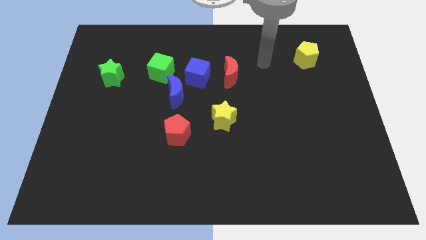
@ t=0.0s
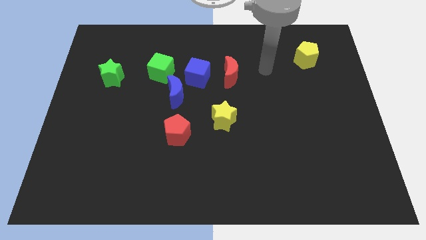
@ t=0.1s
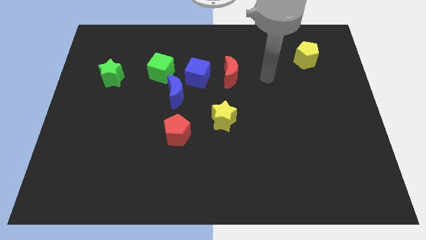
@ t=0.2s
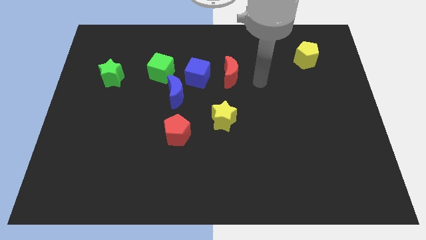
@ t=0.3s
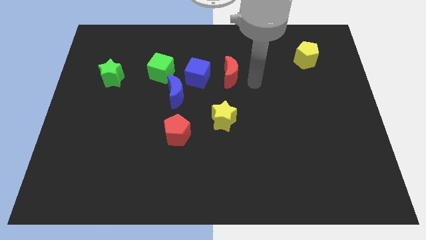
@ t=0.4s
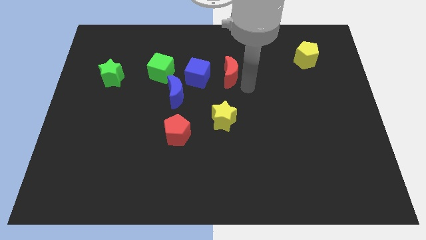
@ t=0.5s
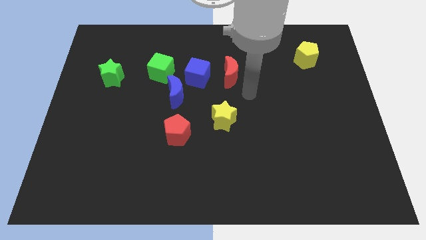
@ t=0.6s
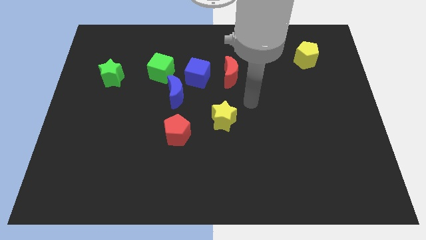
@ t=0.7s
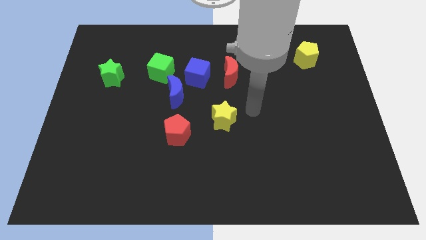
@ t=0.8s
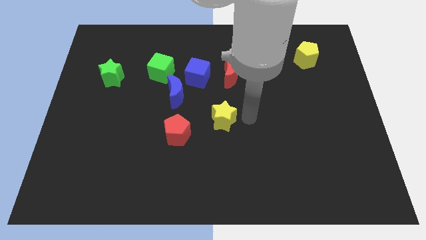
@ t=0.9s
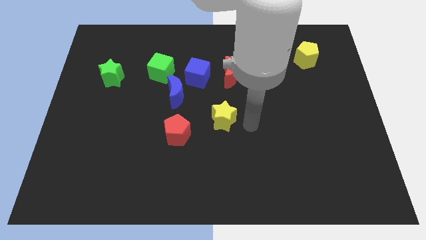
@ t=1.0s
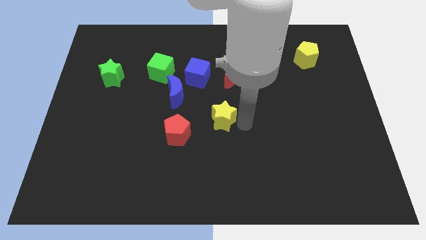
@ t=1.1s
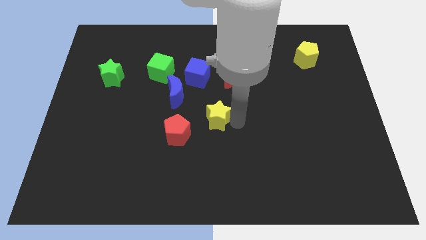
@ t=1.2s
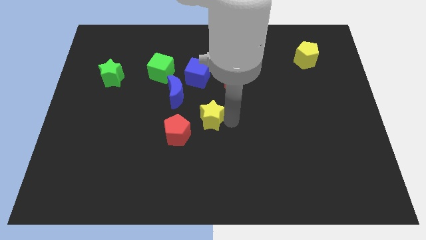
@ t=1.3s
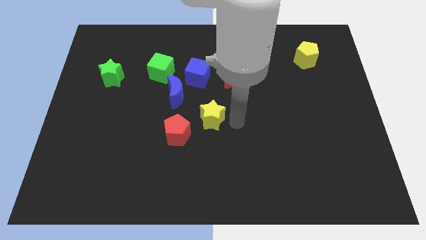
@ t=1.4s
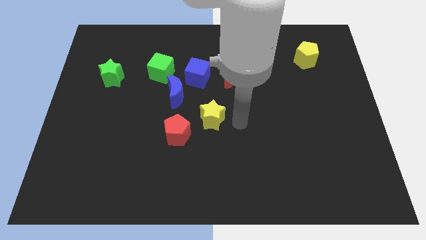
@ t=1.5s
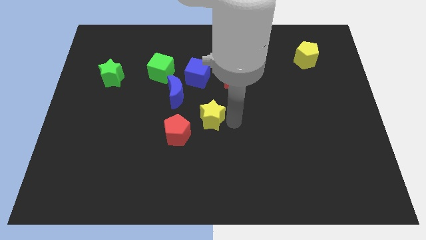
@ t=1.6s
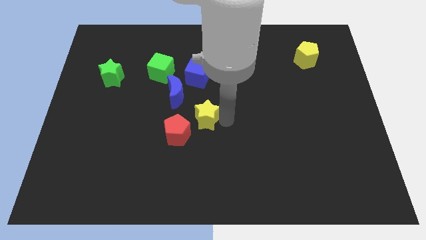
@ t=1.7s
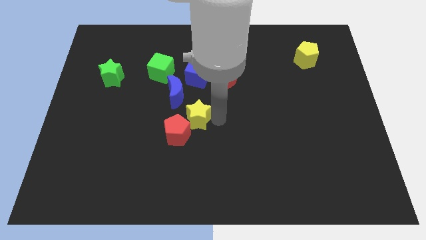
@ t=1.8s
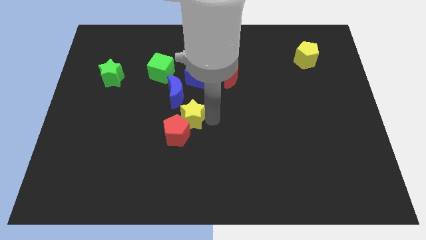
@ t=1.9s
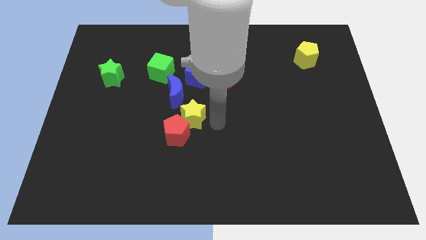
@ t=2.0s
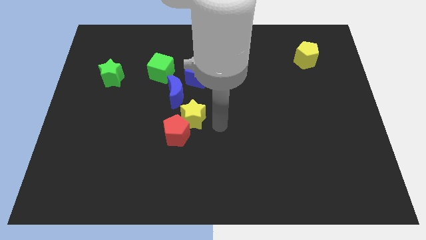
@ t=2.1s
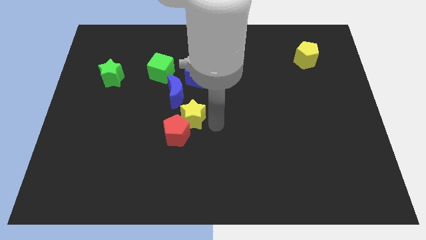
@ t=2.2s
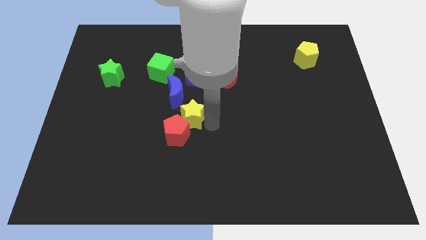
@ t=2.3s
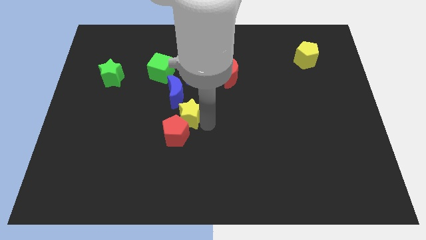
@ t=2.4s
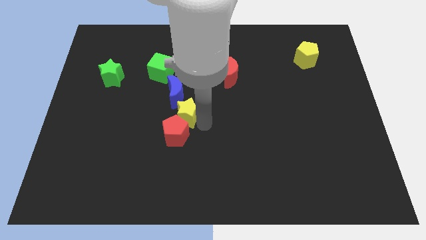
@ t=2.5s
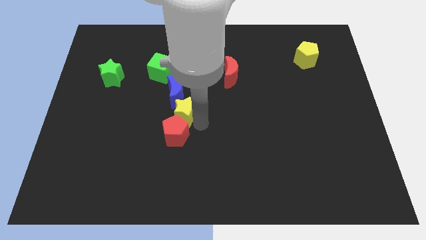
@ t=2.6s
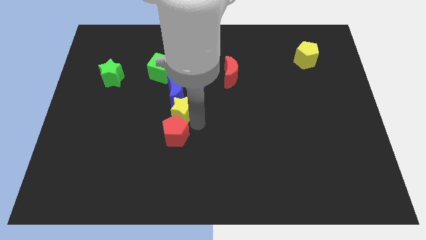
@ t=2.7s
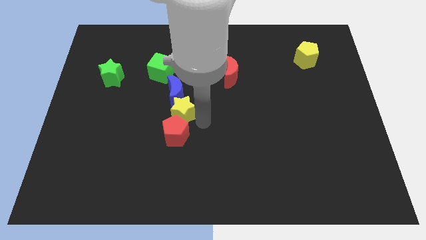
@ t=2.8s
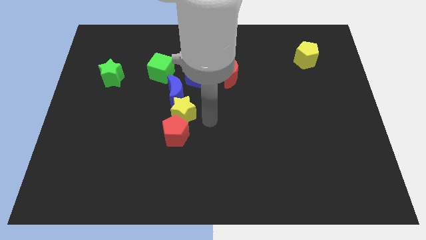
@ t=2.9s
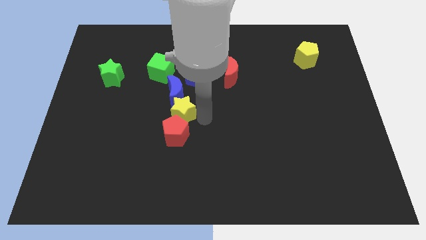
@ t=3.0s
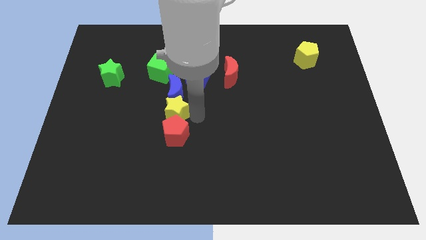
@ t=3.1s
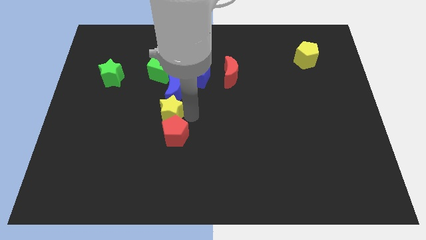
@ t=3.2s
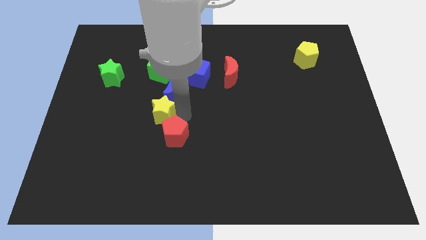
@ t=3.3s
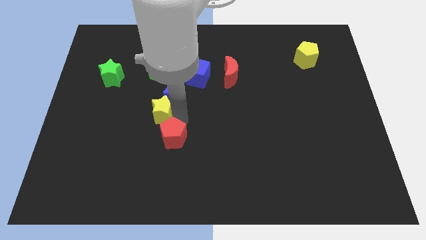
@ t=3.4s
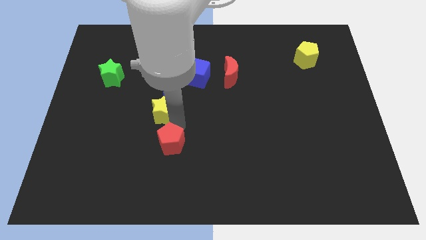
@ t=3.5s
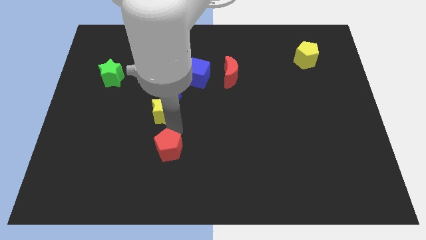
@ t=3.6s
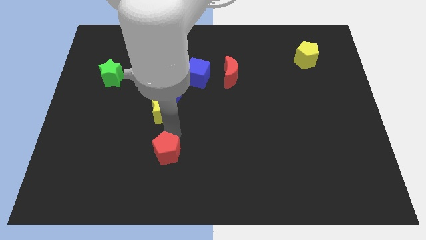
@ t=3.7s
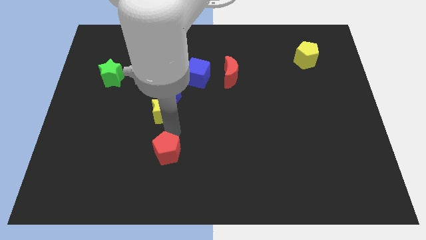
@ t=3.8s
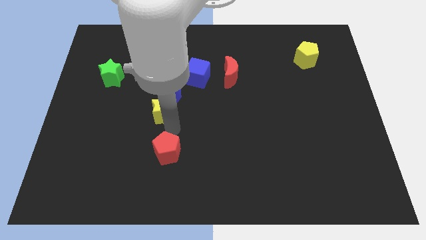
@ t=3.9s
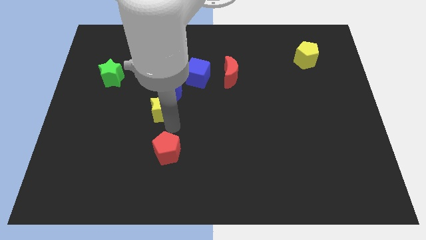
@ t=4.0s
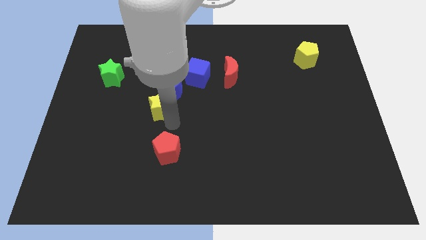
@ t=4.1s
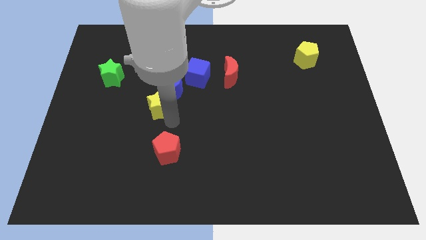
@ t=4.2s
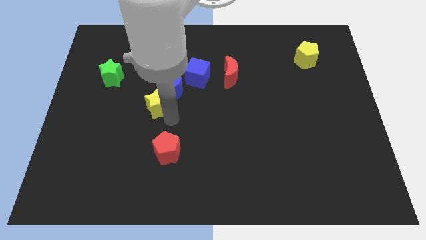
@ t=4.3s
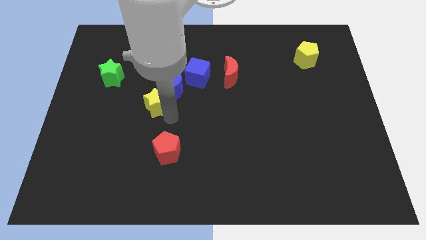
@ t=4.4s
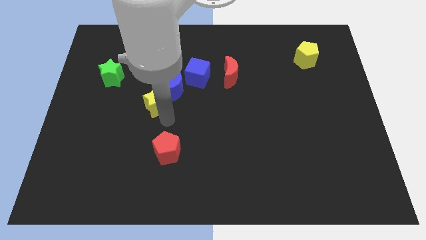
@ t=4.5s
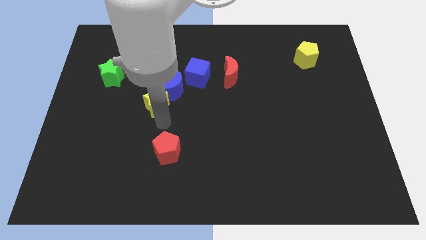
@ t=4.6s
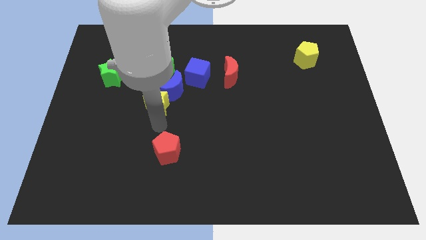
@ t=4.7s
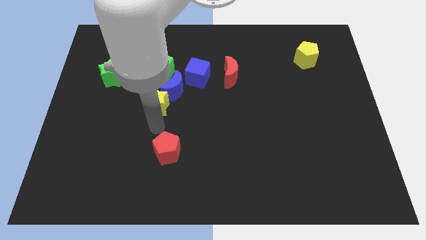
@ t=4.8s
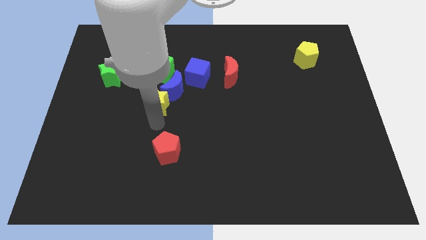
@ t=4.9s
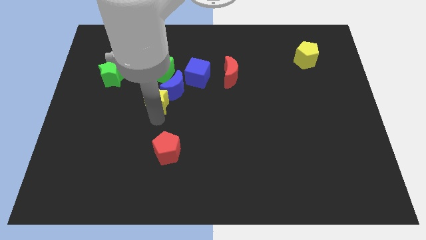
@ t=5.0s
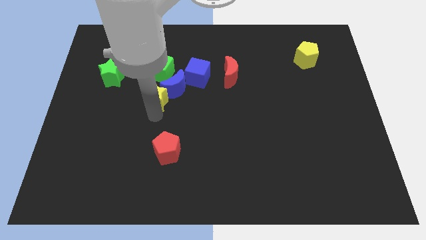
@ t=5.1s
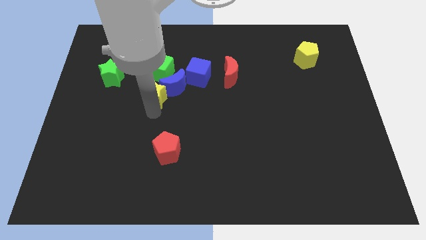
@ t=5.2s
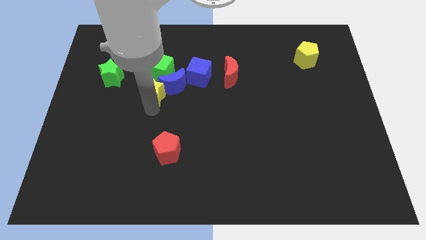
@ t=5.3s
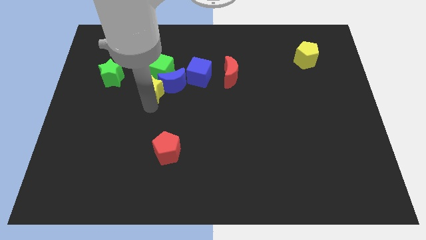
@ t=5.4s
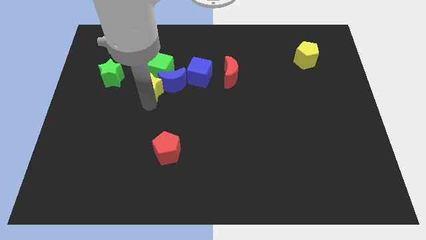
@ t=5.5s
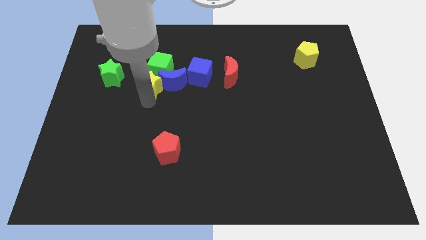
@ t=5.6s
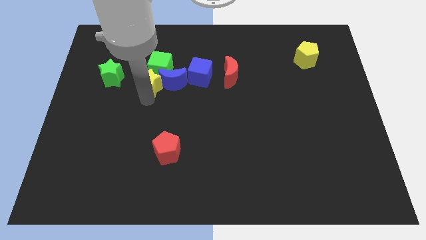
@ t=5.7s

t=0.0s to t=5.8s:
push the yellow star next to the green cube

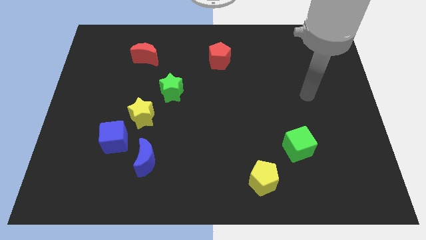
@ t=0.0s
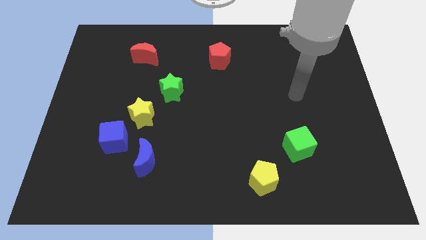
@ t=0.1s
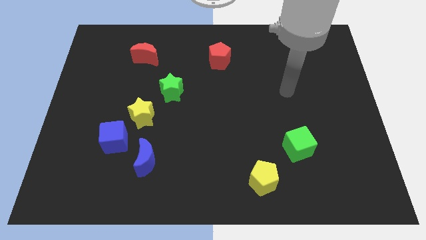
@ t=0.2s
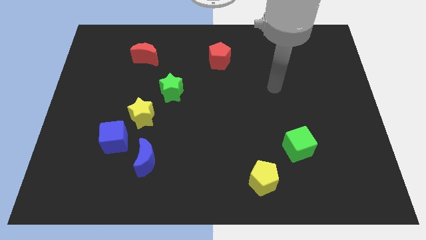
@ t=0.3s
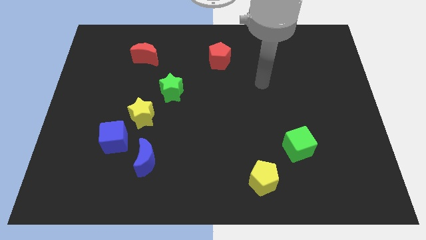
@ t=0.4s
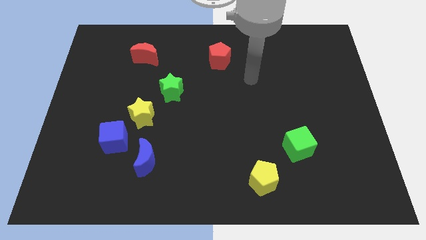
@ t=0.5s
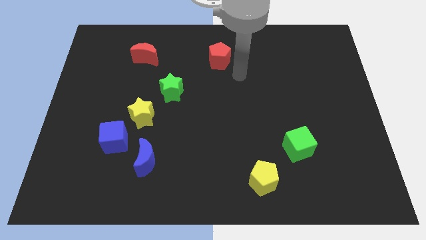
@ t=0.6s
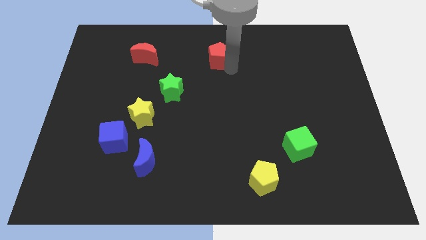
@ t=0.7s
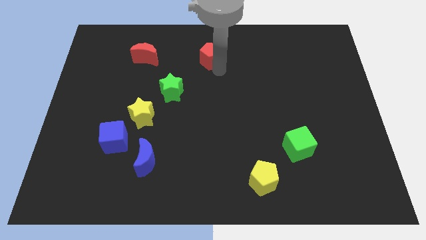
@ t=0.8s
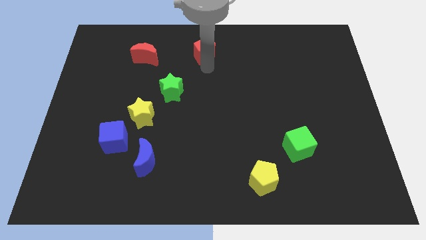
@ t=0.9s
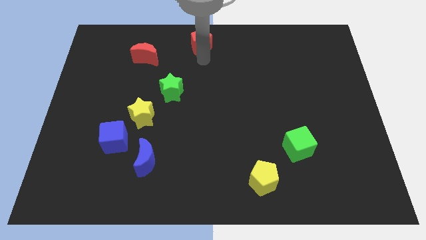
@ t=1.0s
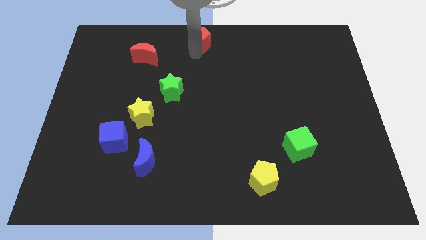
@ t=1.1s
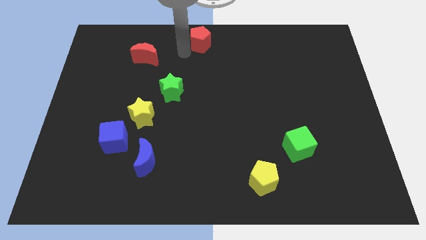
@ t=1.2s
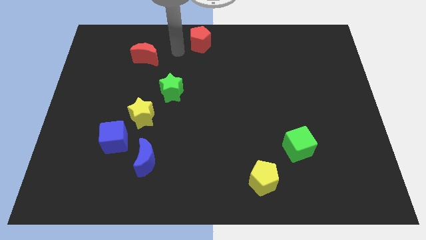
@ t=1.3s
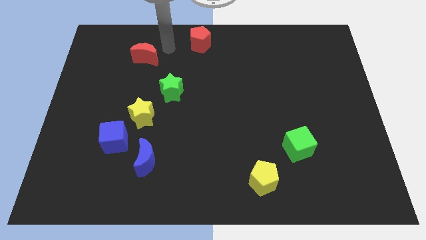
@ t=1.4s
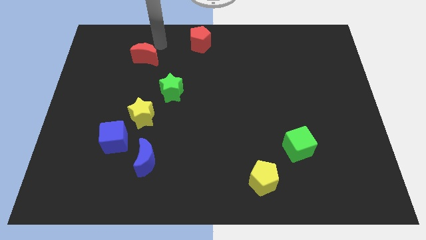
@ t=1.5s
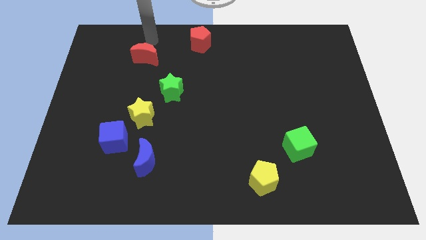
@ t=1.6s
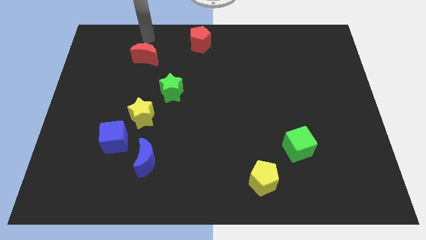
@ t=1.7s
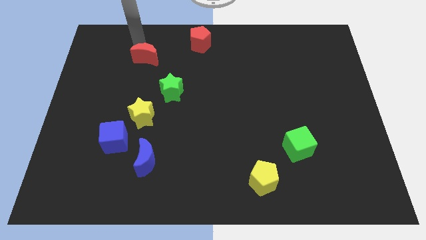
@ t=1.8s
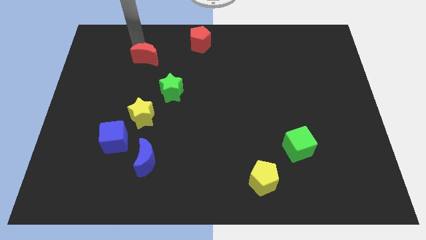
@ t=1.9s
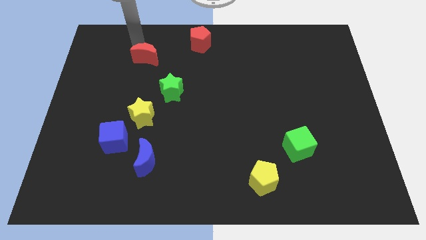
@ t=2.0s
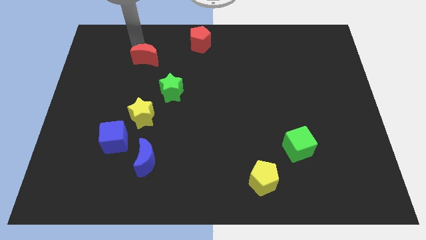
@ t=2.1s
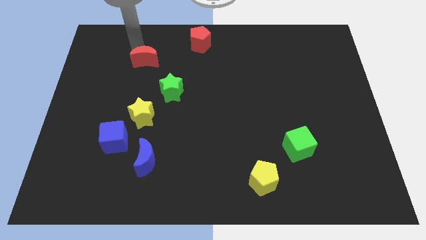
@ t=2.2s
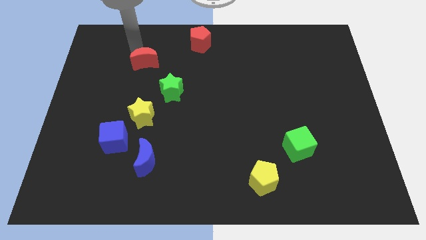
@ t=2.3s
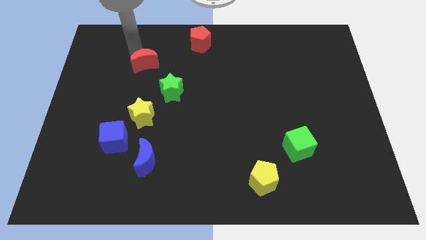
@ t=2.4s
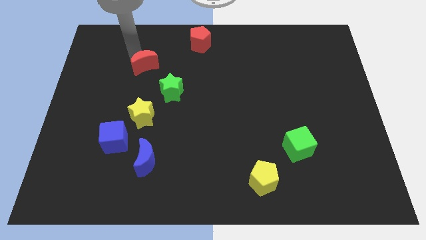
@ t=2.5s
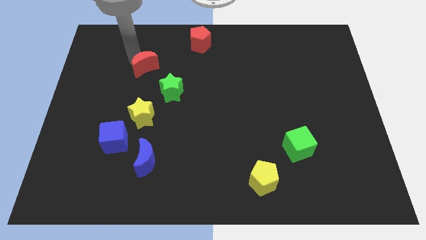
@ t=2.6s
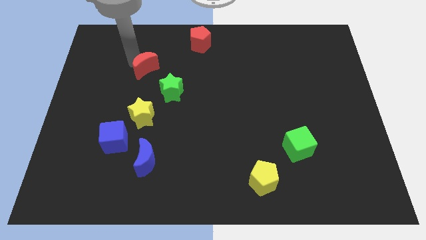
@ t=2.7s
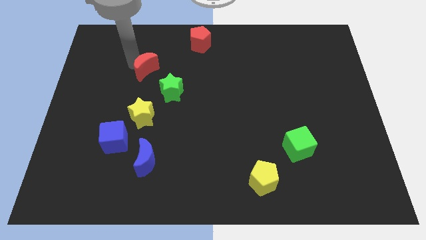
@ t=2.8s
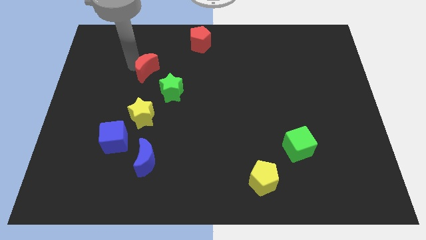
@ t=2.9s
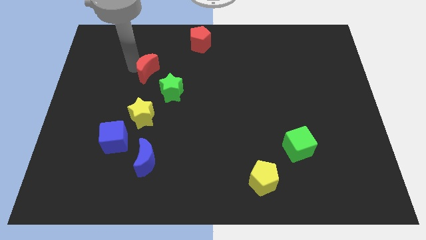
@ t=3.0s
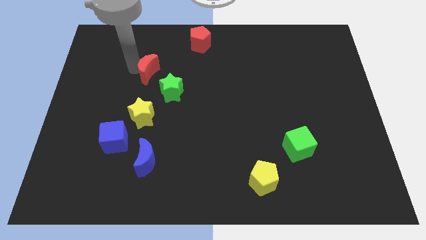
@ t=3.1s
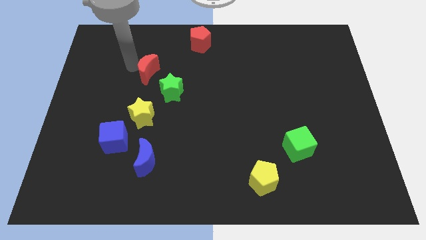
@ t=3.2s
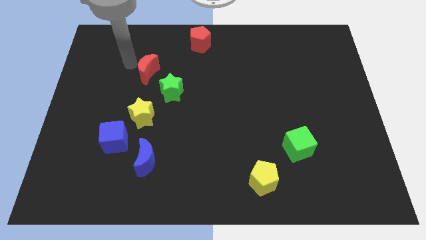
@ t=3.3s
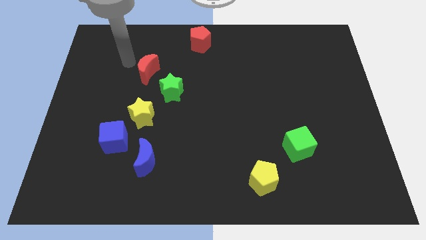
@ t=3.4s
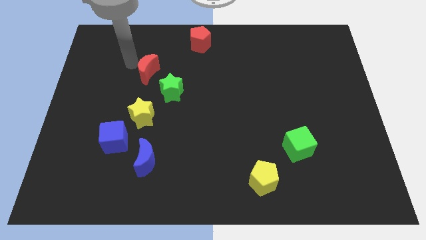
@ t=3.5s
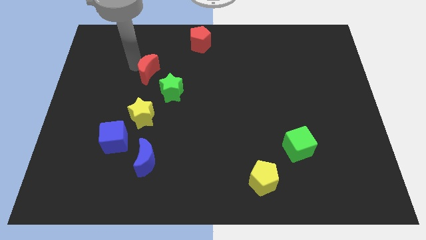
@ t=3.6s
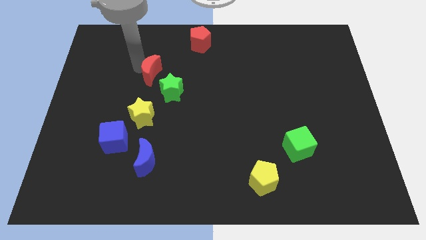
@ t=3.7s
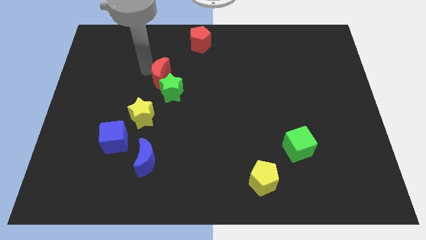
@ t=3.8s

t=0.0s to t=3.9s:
put the red moon next to the green star
